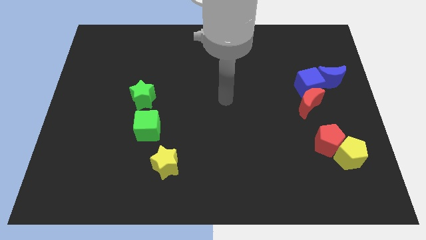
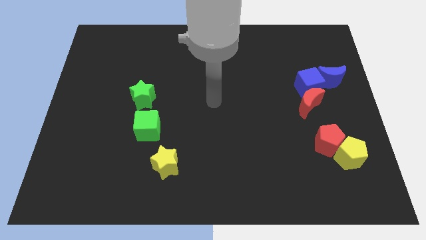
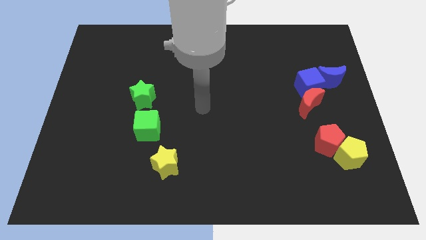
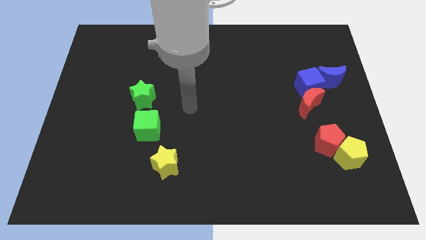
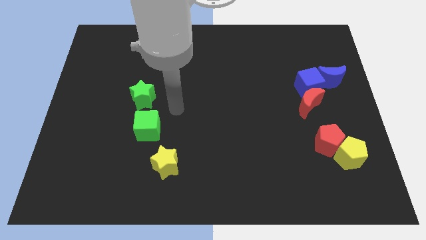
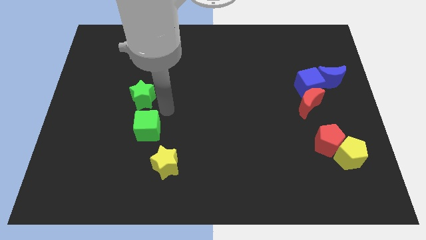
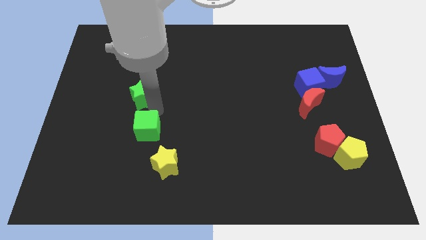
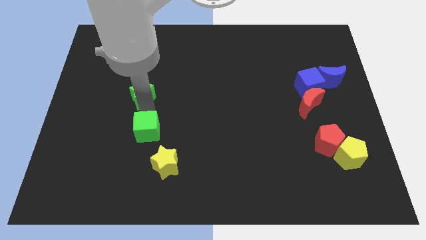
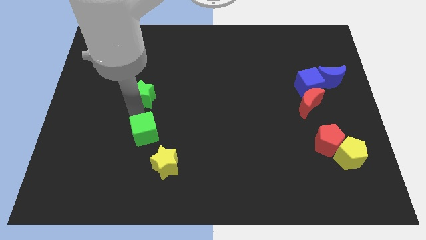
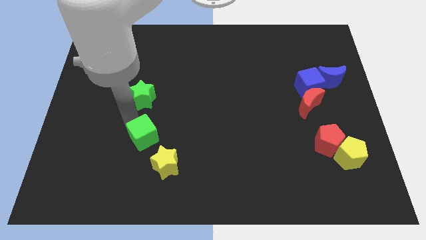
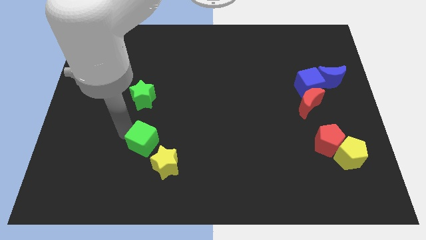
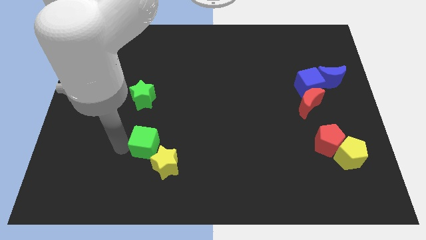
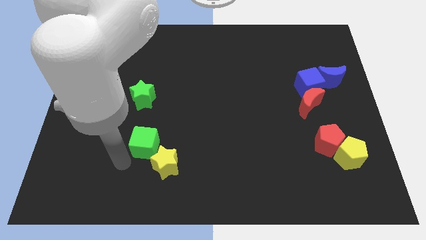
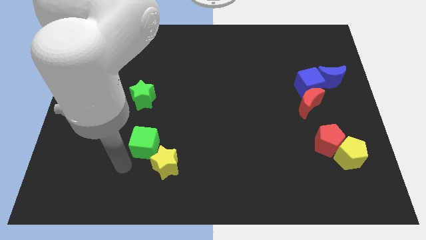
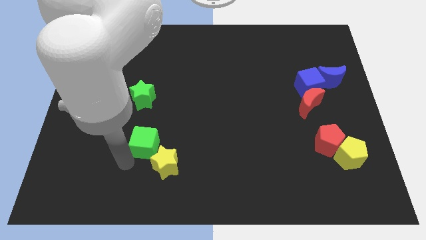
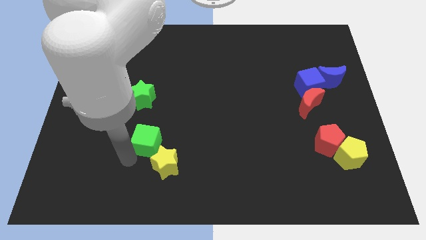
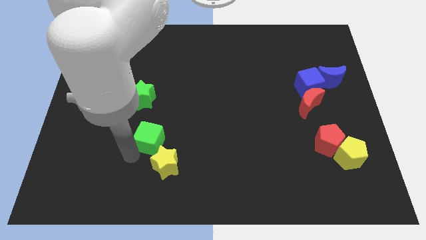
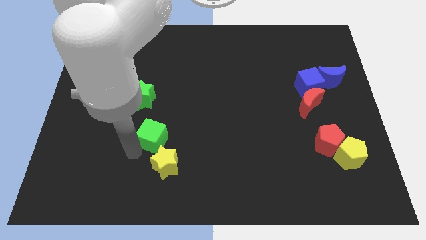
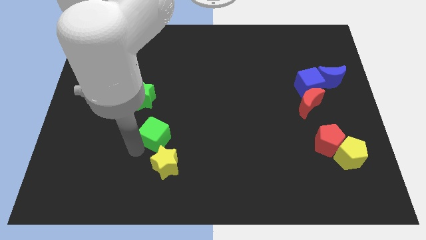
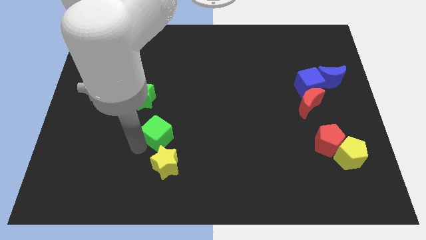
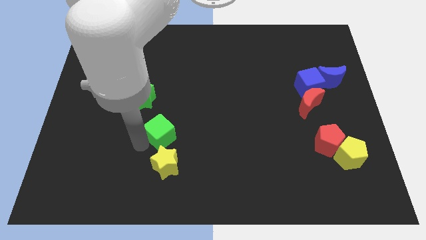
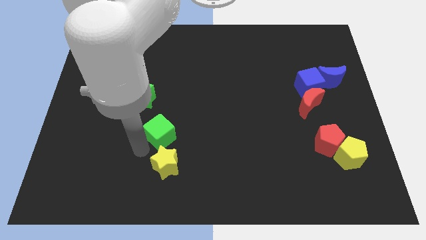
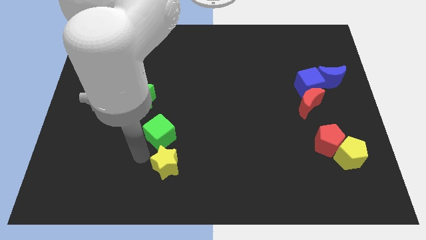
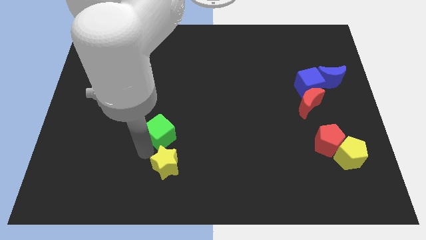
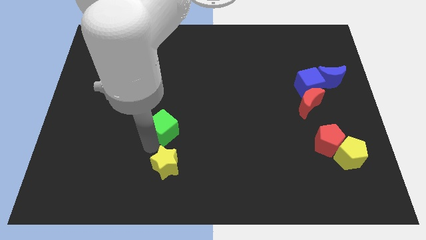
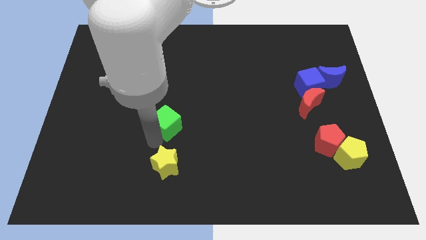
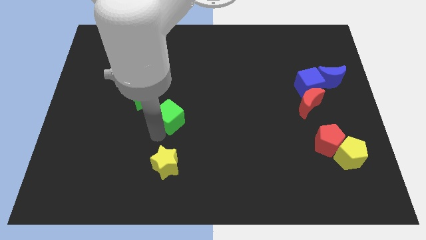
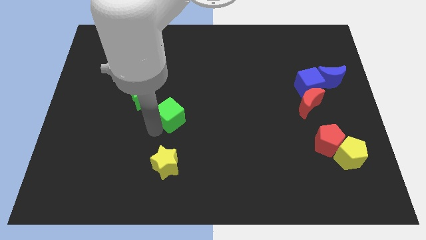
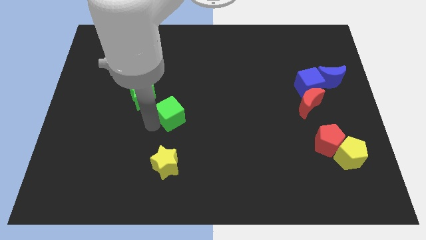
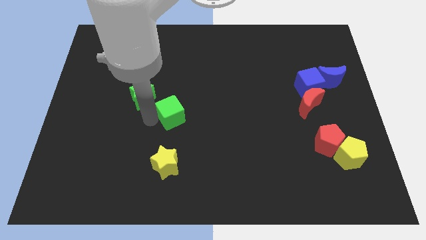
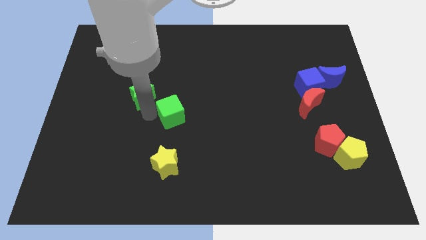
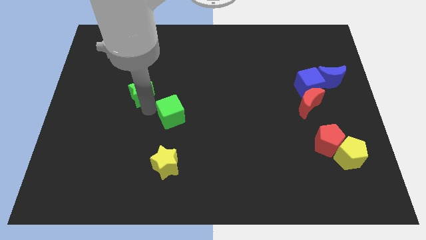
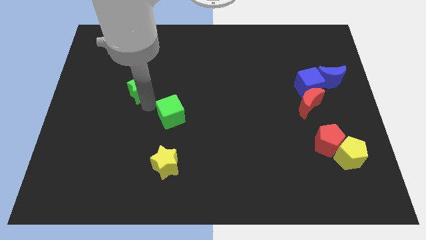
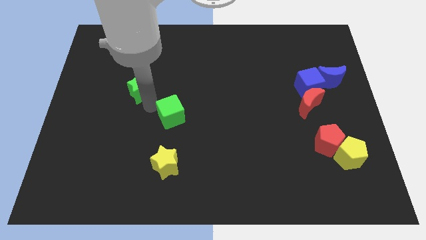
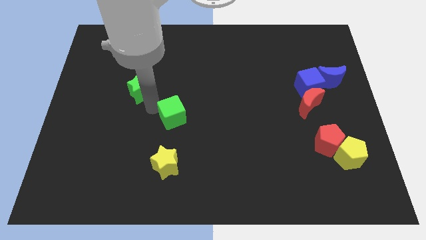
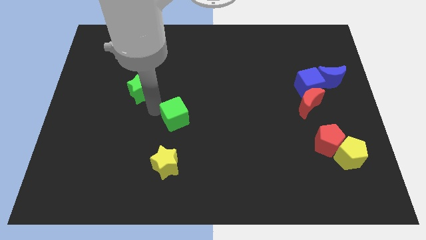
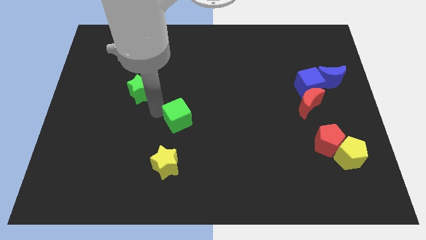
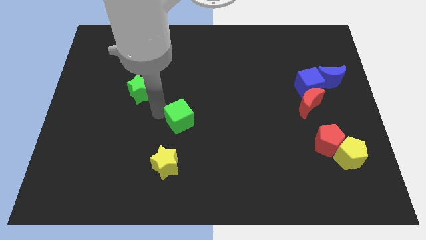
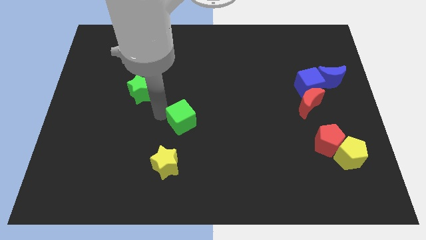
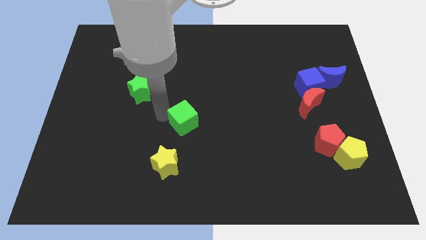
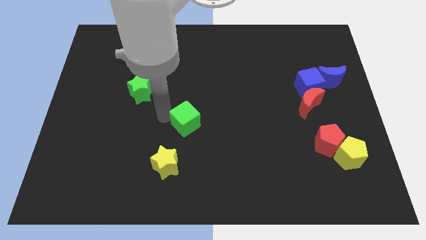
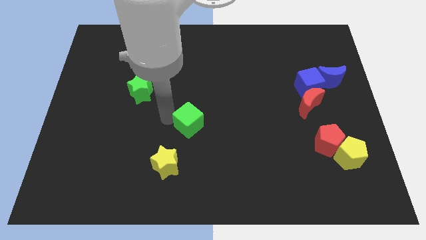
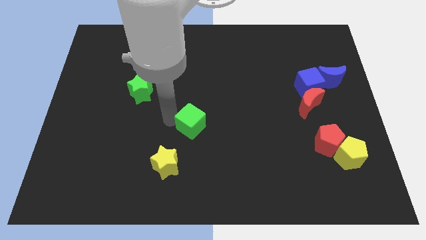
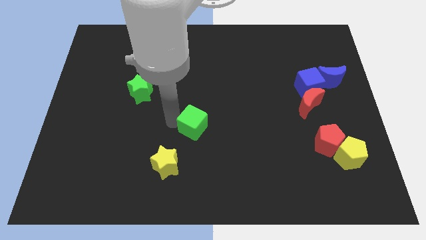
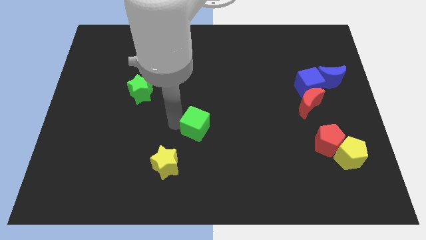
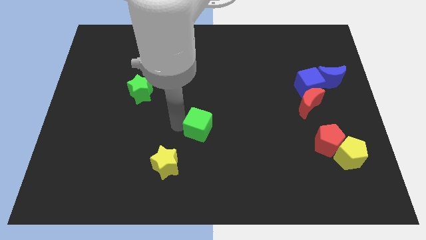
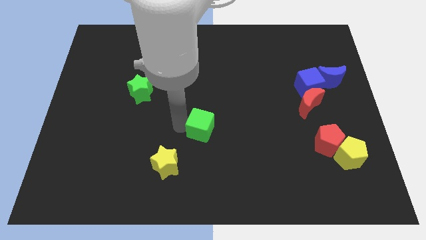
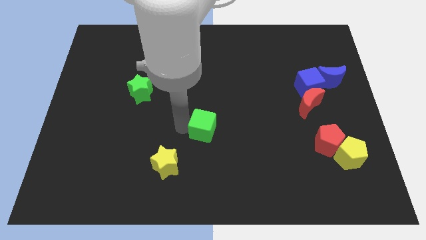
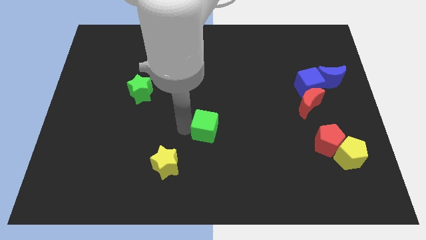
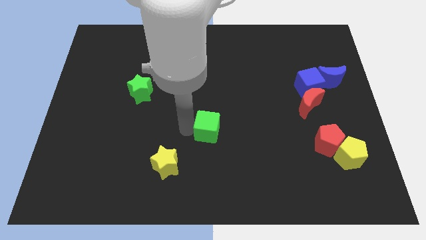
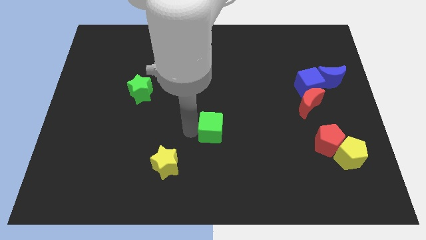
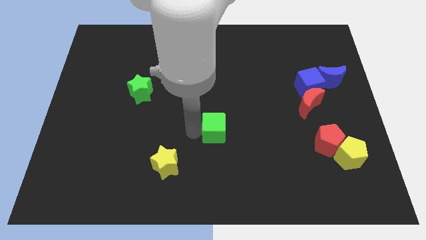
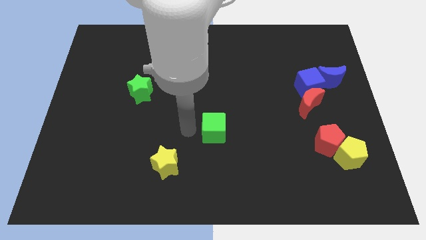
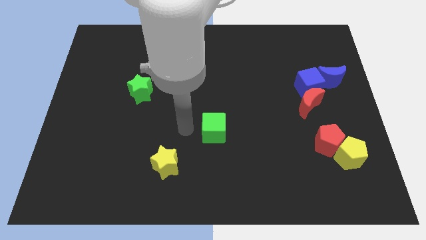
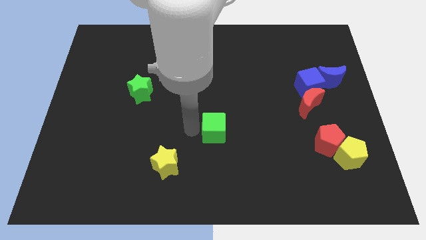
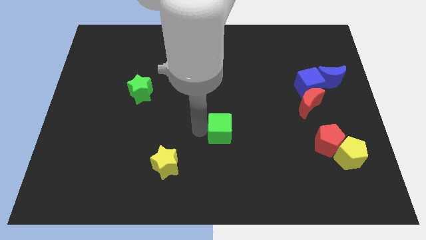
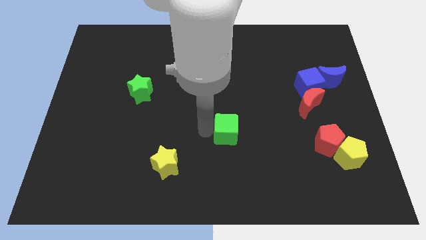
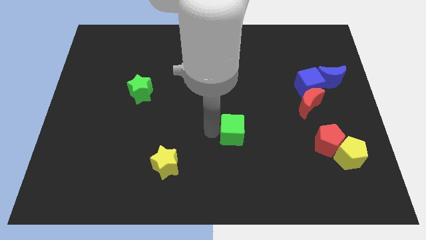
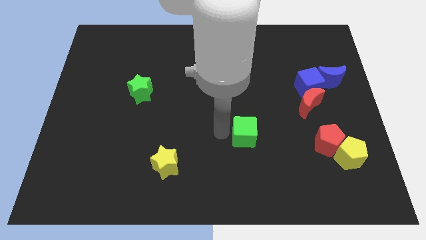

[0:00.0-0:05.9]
move the green cube to the right

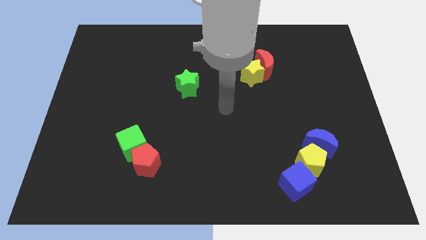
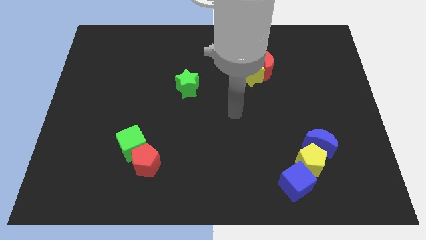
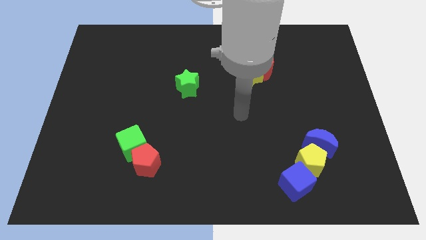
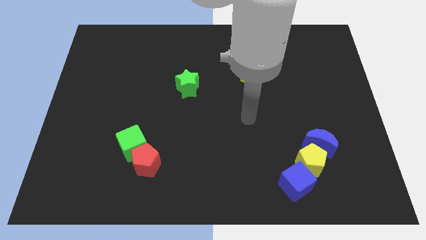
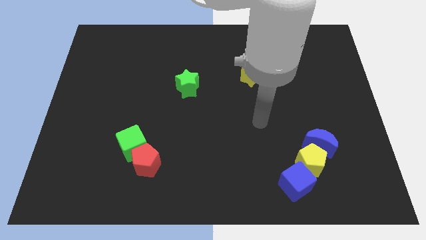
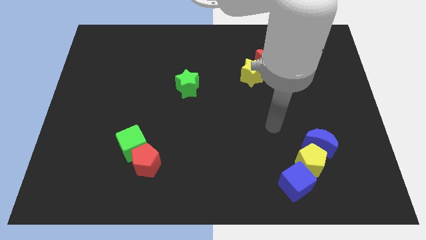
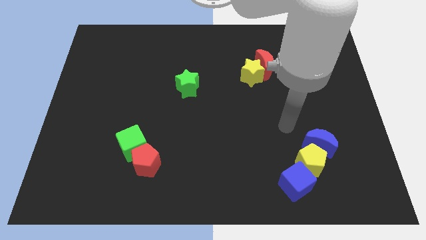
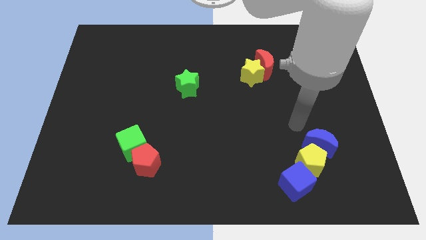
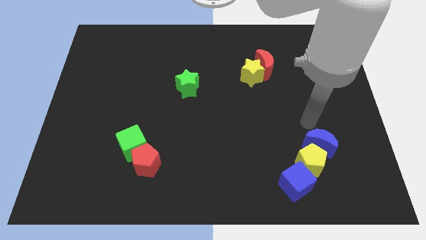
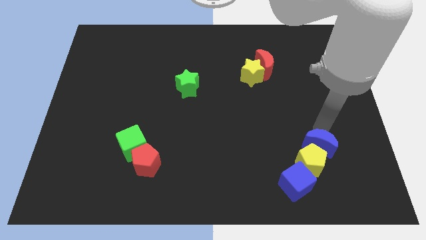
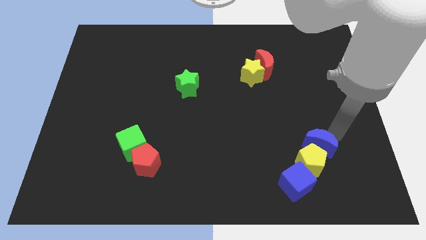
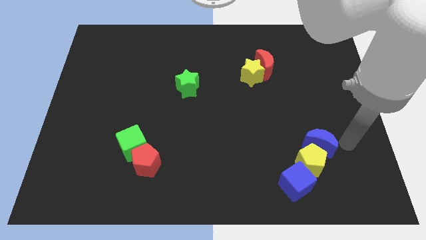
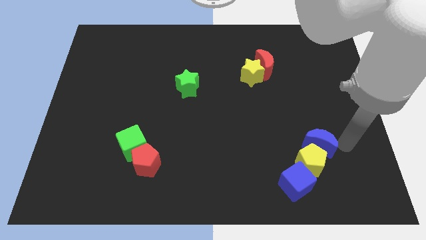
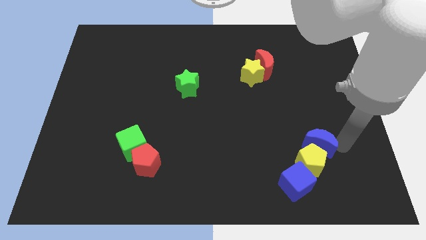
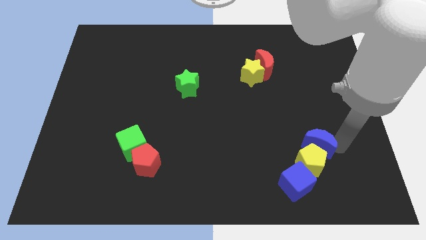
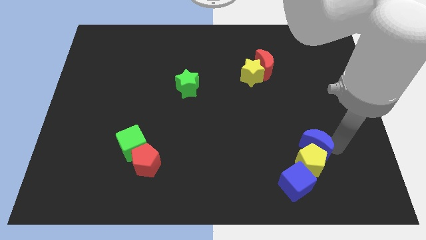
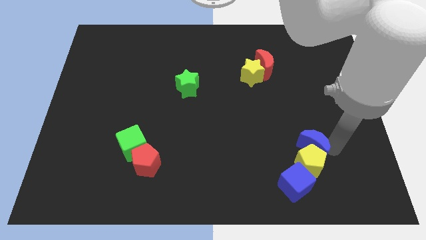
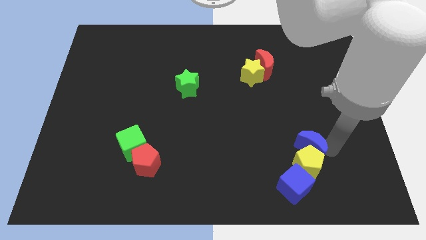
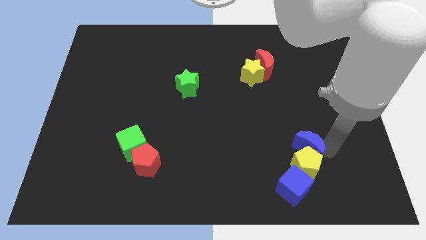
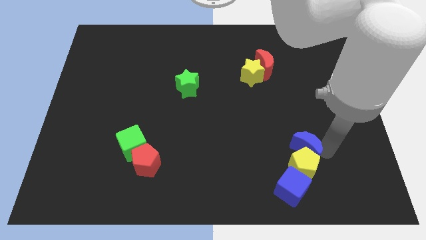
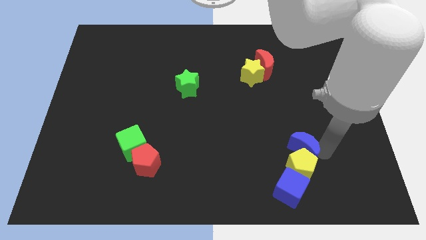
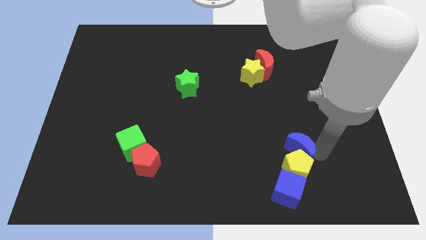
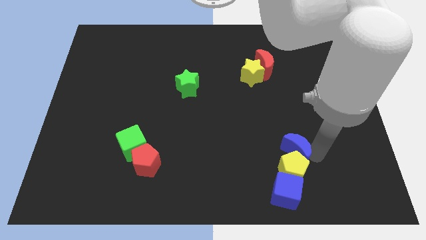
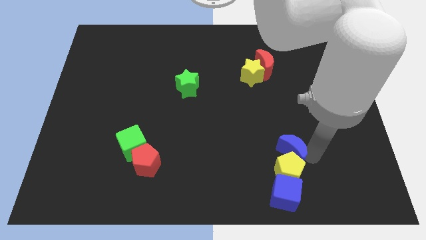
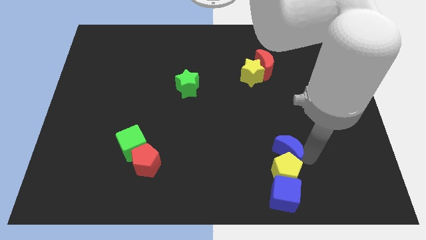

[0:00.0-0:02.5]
push the blue moon slightly left
